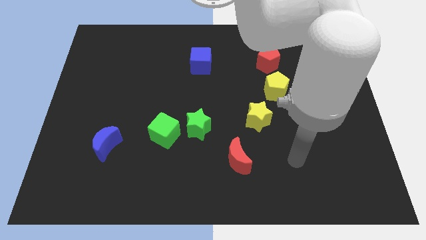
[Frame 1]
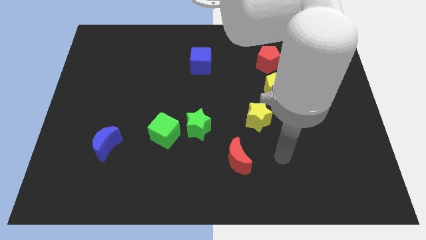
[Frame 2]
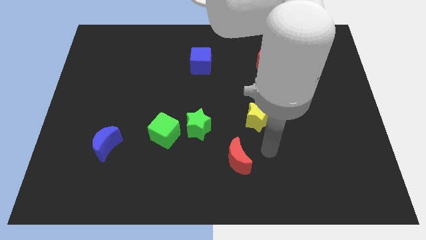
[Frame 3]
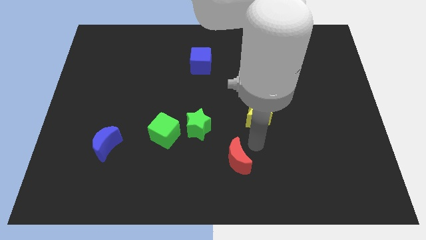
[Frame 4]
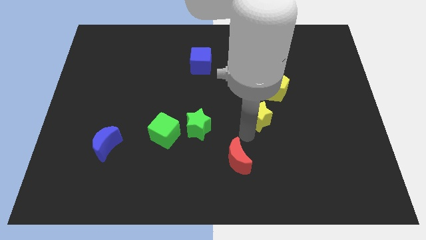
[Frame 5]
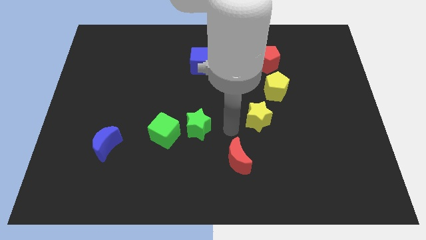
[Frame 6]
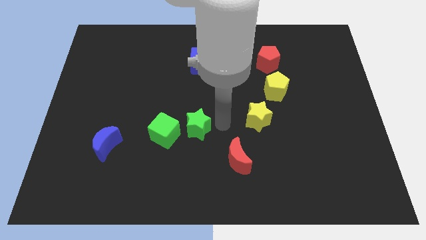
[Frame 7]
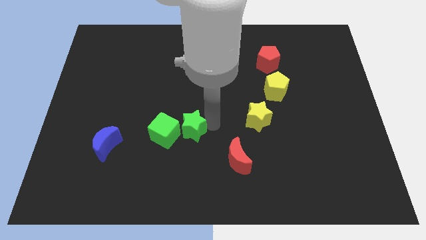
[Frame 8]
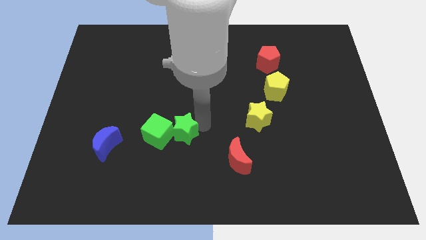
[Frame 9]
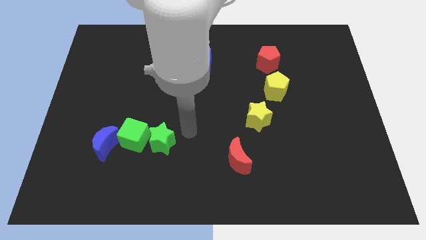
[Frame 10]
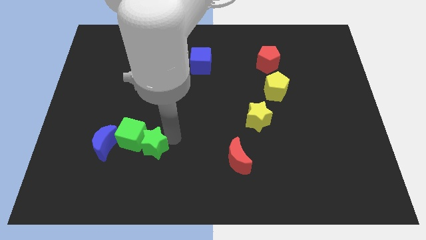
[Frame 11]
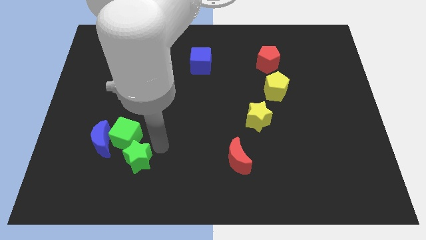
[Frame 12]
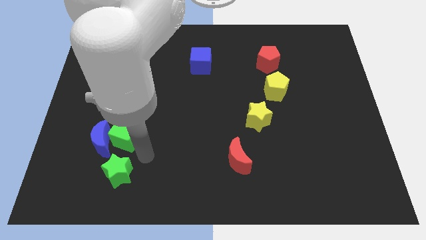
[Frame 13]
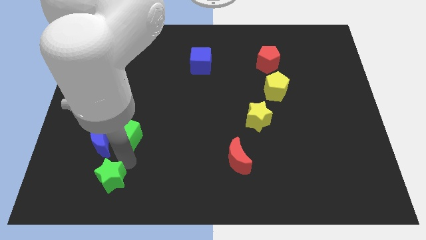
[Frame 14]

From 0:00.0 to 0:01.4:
separate the green cube from the green star

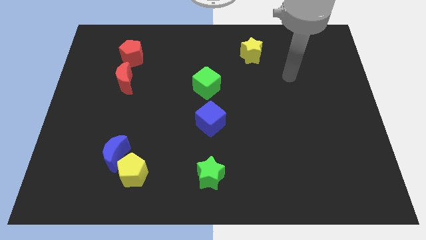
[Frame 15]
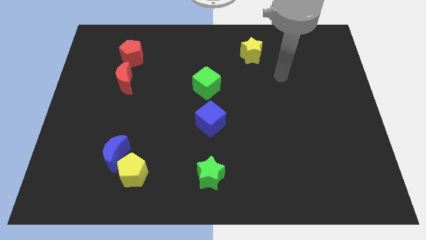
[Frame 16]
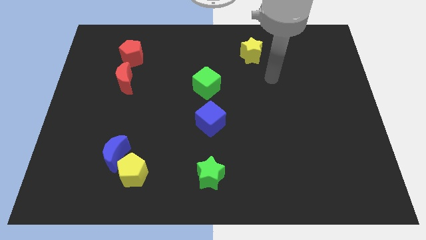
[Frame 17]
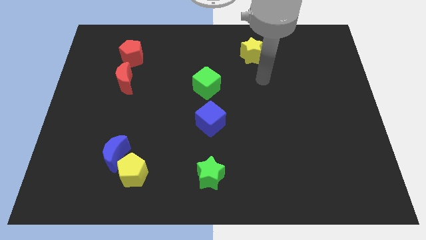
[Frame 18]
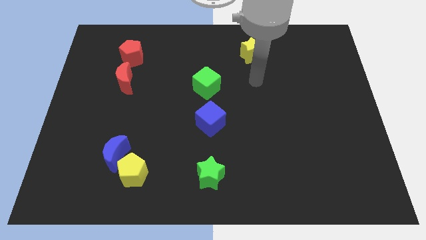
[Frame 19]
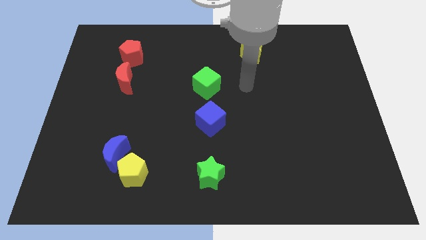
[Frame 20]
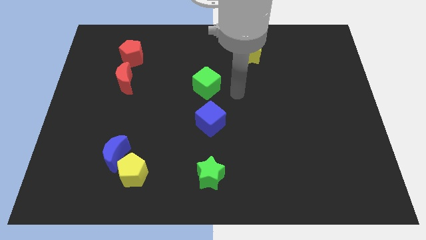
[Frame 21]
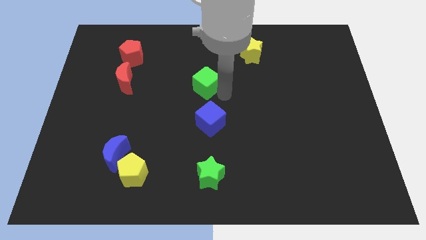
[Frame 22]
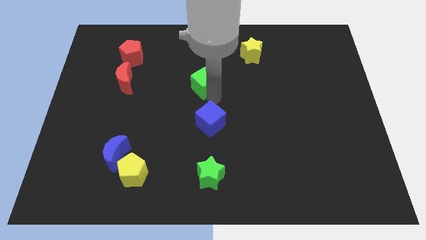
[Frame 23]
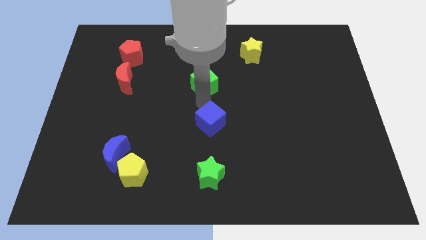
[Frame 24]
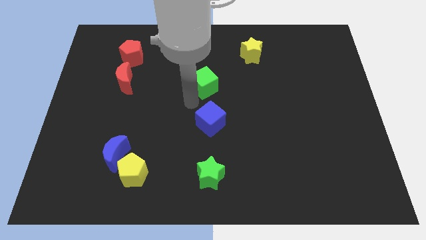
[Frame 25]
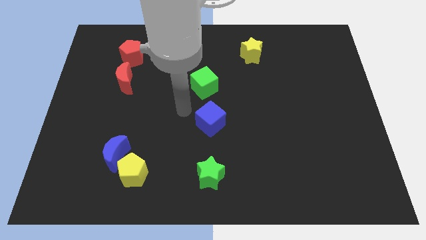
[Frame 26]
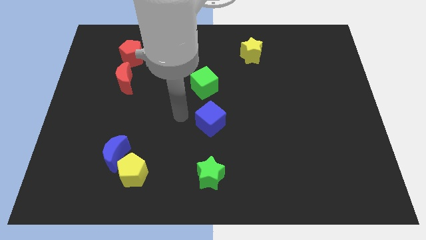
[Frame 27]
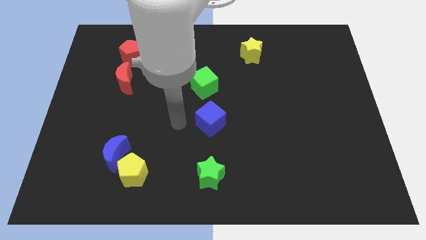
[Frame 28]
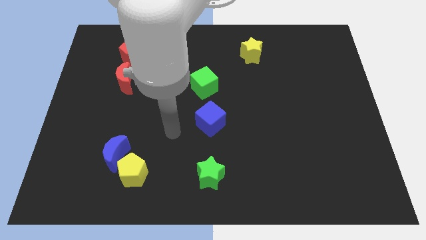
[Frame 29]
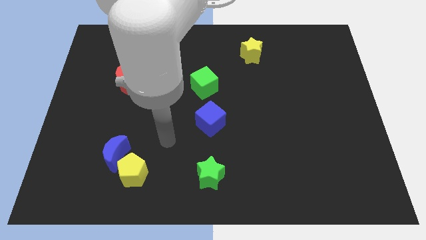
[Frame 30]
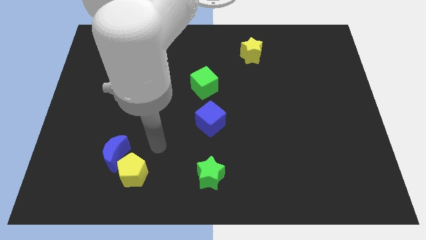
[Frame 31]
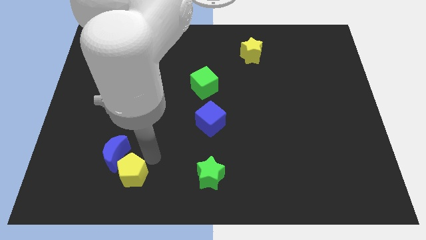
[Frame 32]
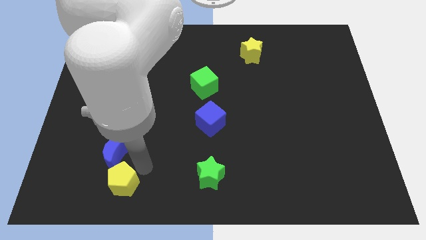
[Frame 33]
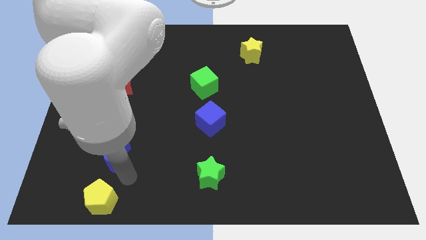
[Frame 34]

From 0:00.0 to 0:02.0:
separate the blue moon from the yellow pentagon

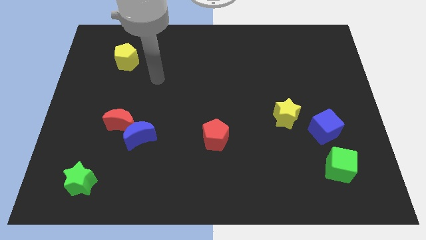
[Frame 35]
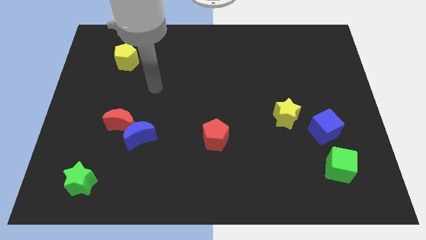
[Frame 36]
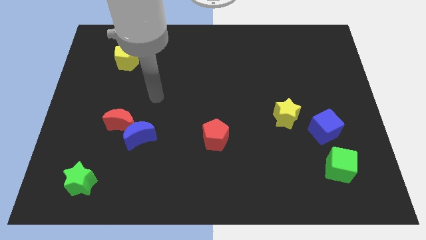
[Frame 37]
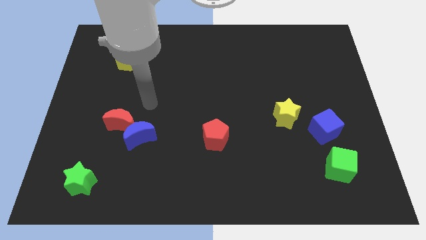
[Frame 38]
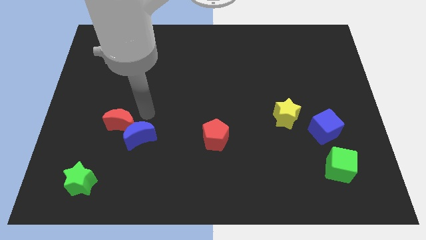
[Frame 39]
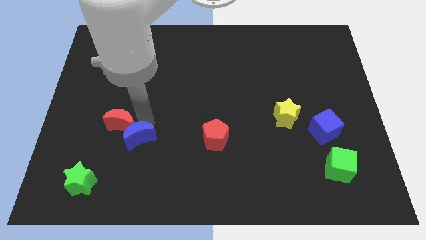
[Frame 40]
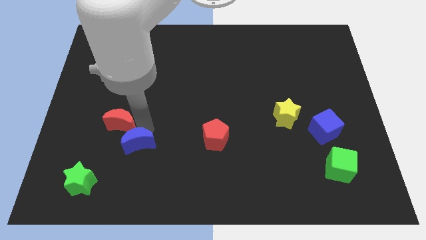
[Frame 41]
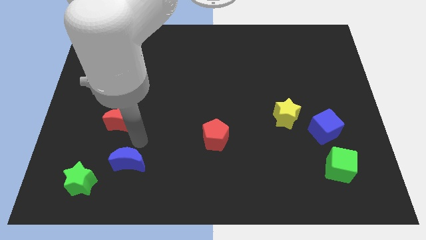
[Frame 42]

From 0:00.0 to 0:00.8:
separate the red moon from the blue moon

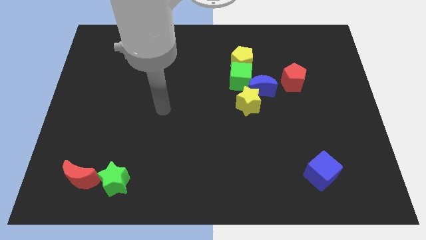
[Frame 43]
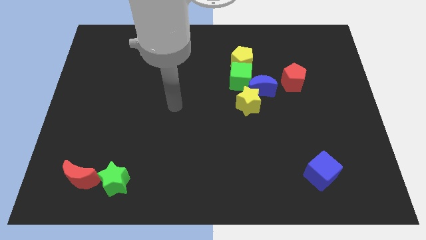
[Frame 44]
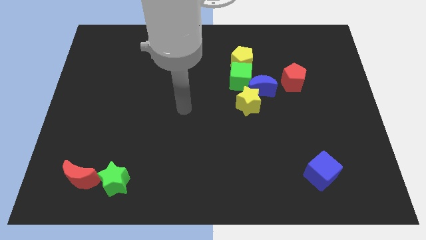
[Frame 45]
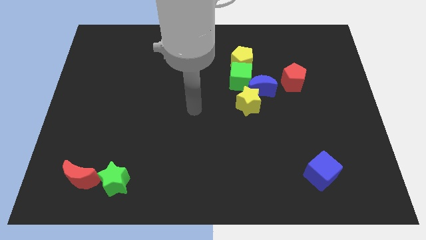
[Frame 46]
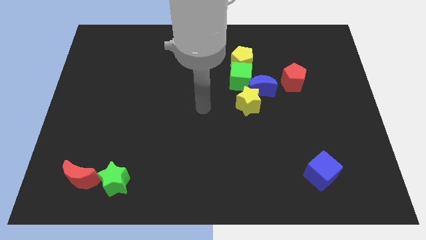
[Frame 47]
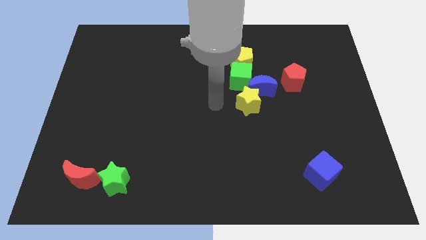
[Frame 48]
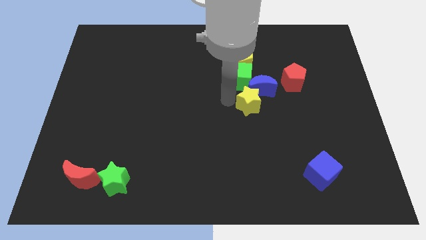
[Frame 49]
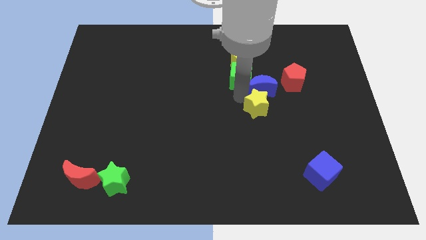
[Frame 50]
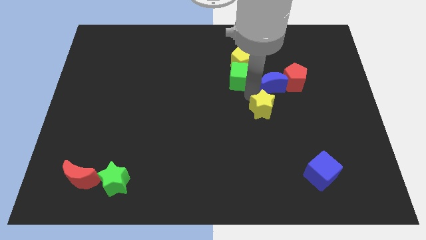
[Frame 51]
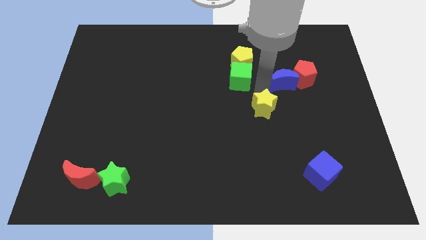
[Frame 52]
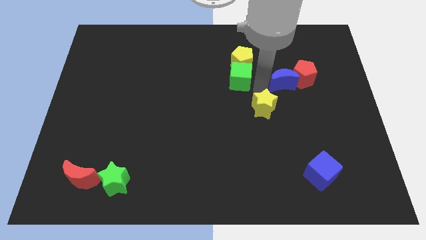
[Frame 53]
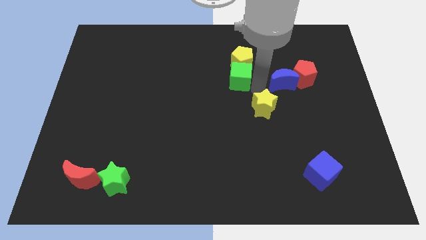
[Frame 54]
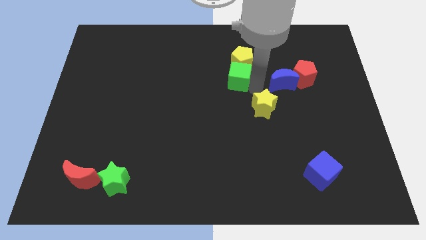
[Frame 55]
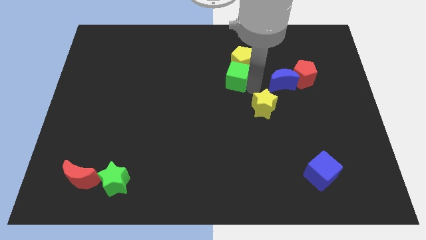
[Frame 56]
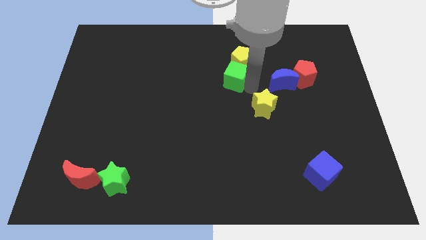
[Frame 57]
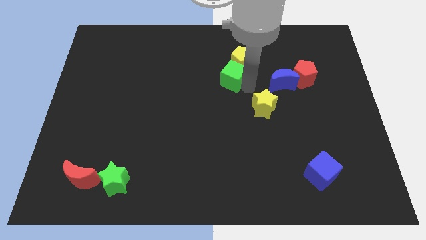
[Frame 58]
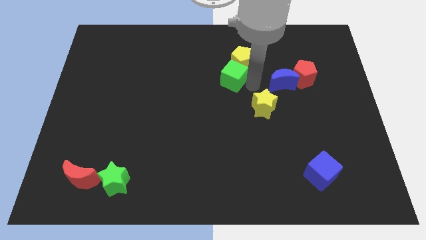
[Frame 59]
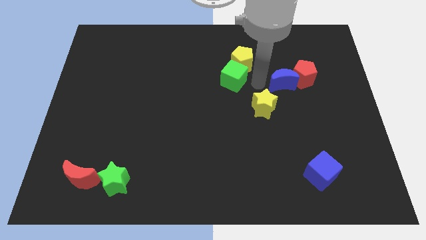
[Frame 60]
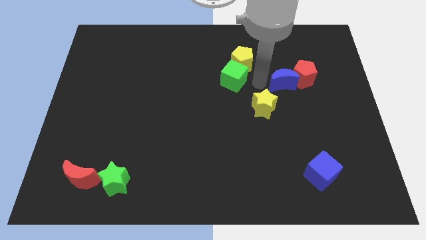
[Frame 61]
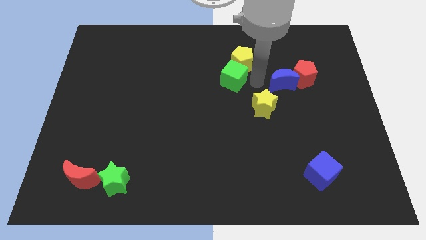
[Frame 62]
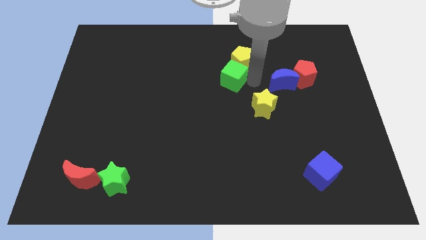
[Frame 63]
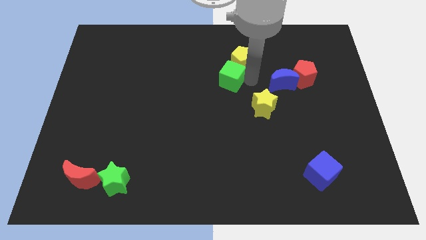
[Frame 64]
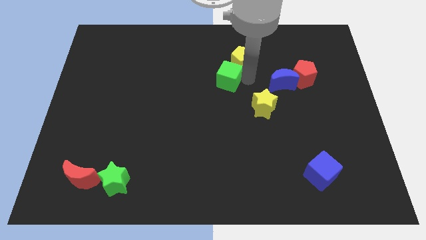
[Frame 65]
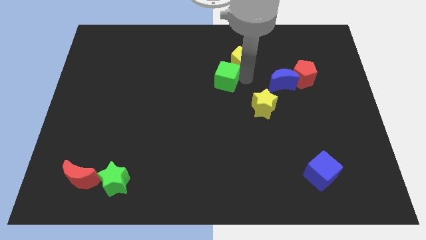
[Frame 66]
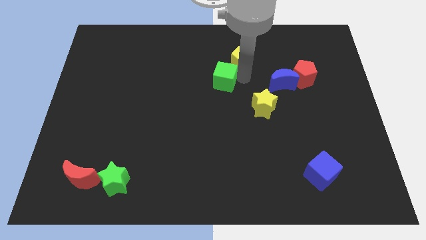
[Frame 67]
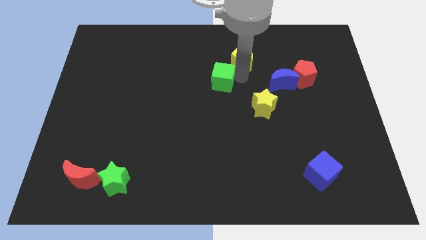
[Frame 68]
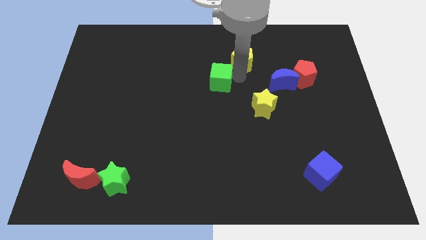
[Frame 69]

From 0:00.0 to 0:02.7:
move the green cube away from the clump

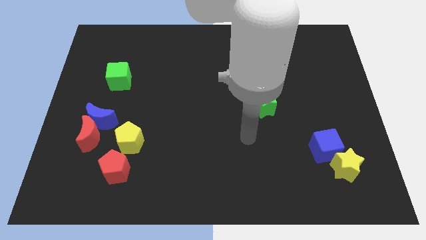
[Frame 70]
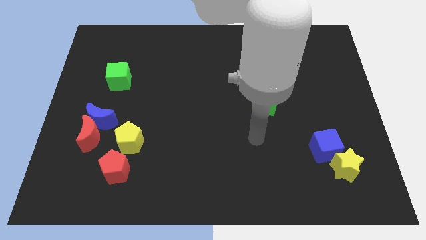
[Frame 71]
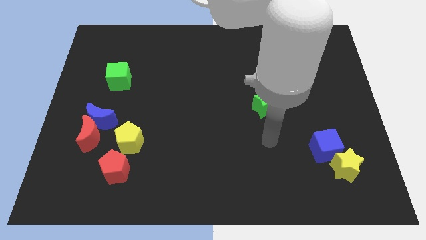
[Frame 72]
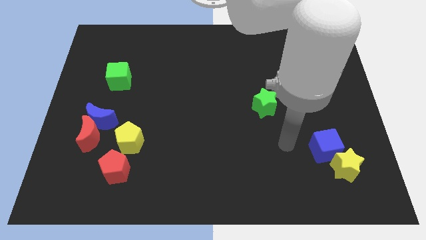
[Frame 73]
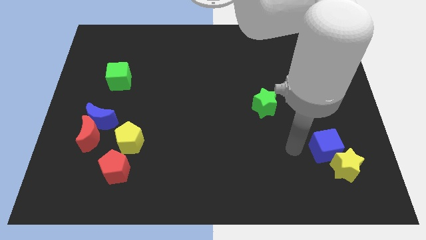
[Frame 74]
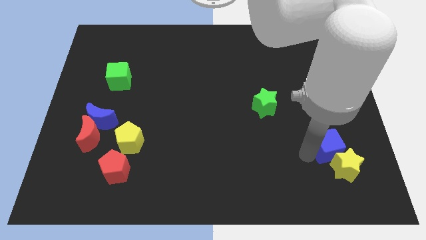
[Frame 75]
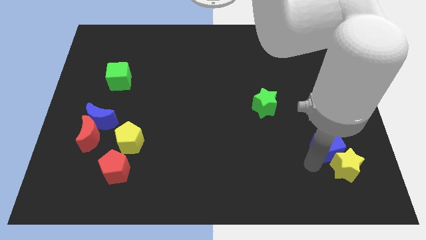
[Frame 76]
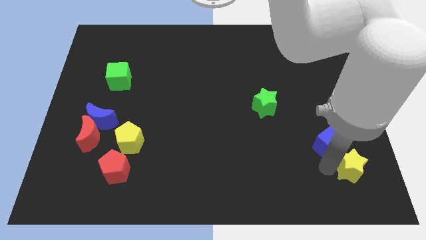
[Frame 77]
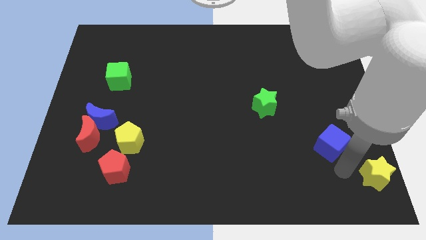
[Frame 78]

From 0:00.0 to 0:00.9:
separate the blue cube from the yellow star

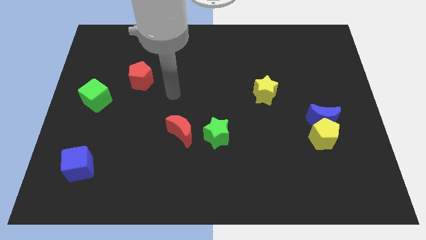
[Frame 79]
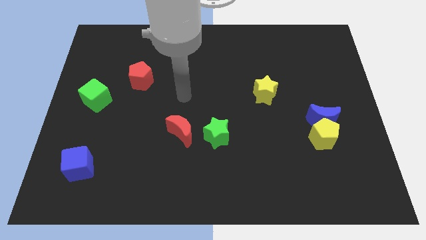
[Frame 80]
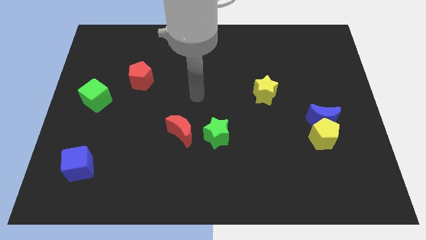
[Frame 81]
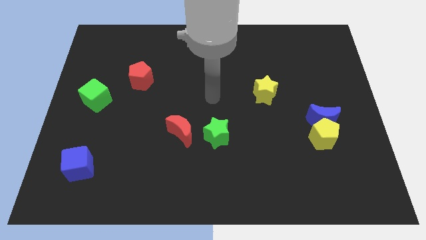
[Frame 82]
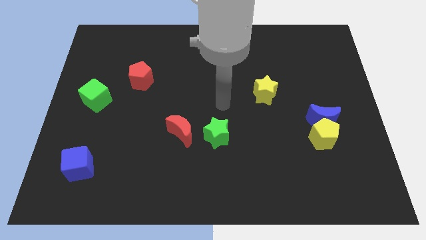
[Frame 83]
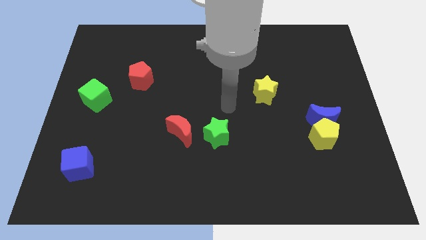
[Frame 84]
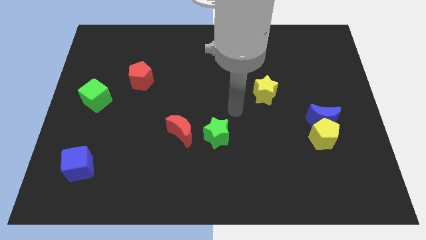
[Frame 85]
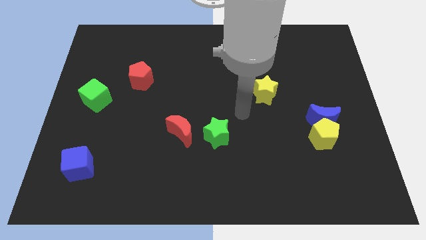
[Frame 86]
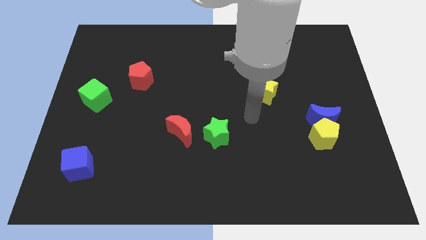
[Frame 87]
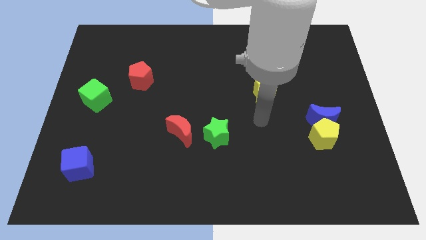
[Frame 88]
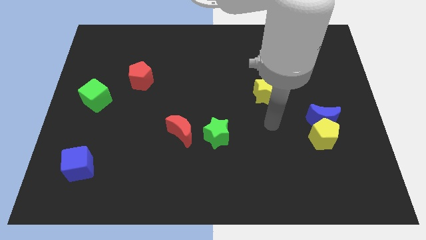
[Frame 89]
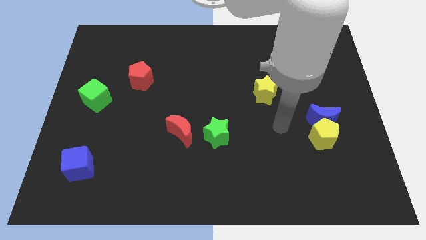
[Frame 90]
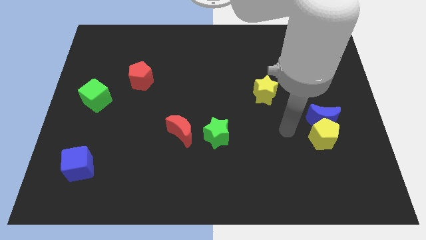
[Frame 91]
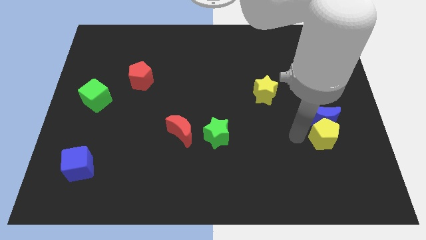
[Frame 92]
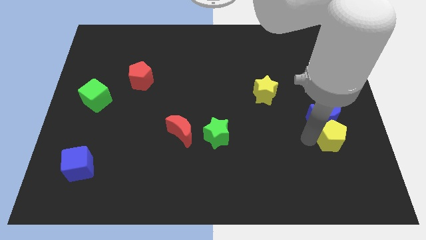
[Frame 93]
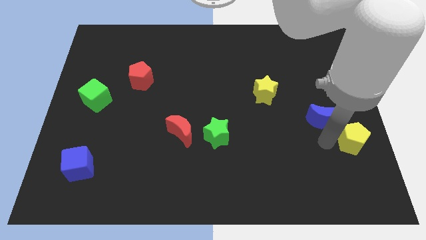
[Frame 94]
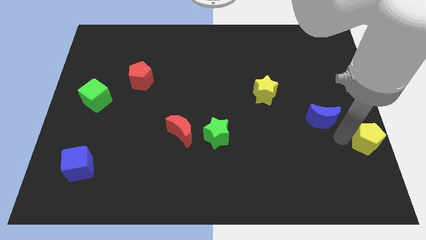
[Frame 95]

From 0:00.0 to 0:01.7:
pull the blue moon apart from the yellow pentagon
